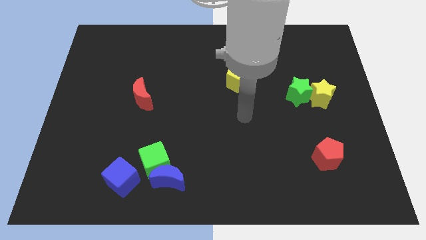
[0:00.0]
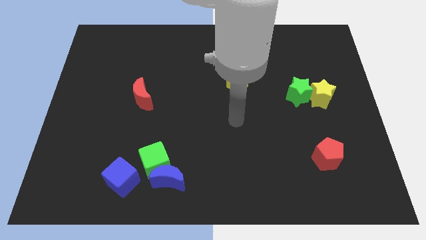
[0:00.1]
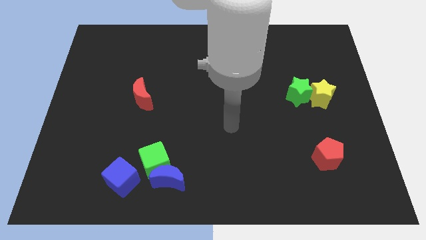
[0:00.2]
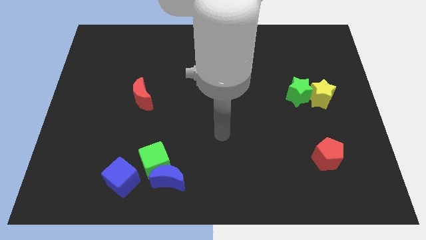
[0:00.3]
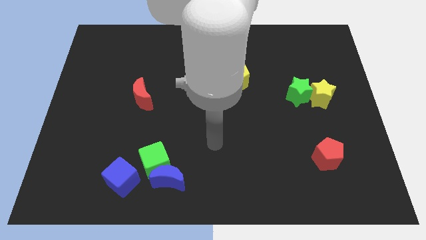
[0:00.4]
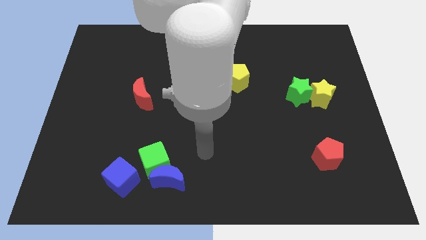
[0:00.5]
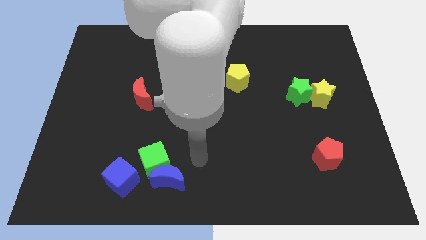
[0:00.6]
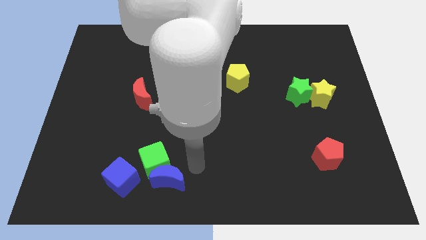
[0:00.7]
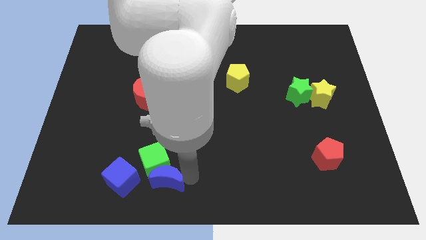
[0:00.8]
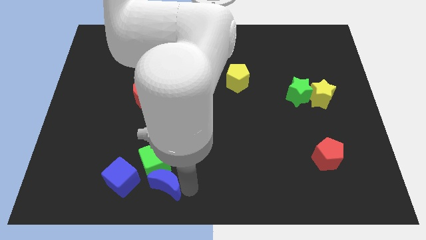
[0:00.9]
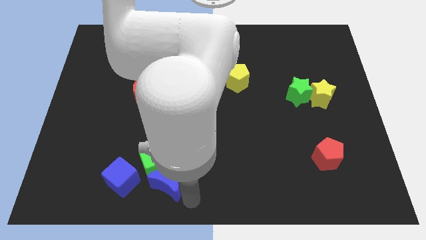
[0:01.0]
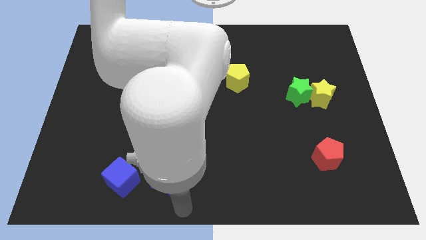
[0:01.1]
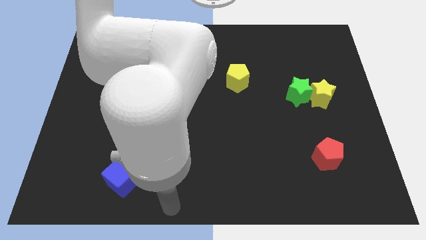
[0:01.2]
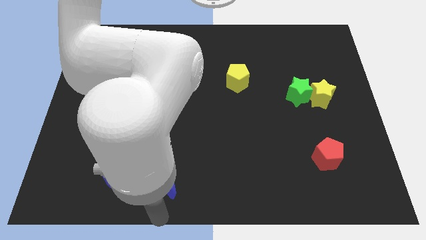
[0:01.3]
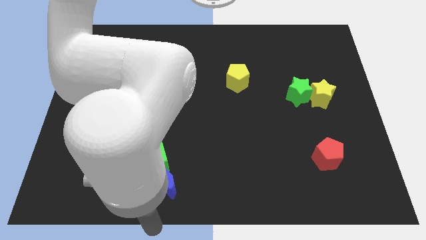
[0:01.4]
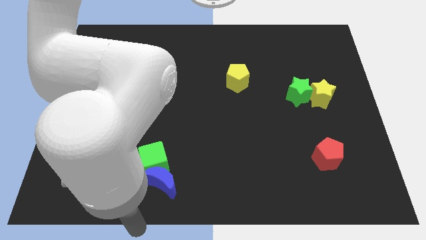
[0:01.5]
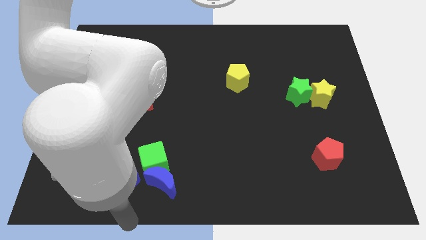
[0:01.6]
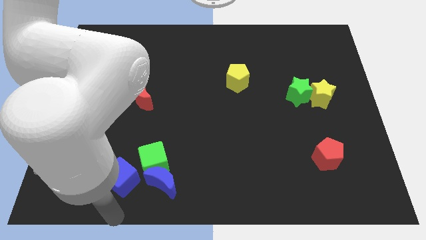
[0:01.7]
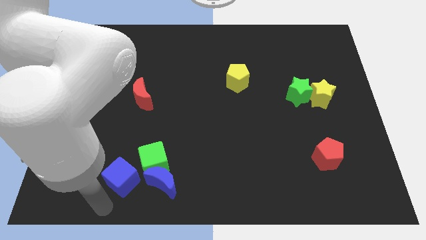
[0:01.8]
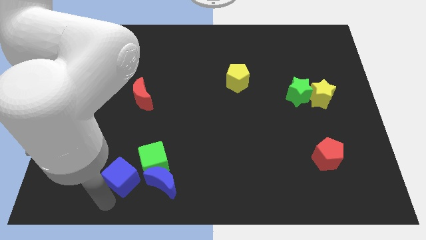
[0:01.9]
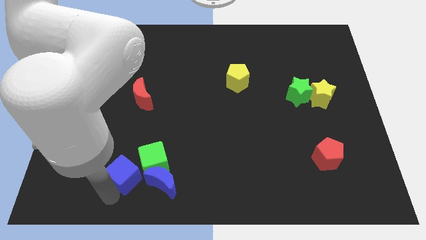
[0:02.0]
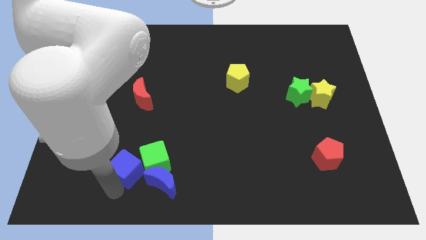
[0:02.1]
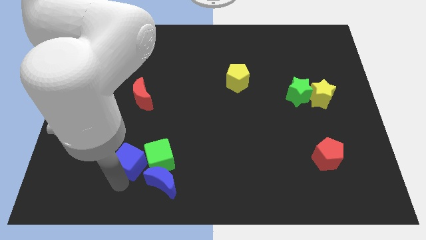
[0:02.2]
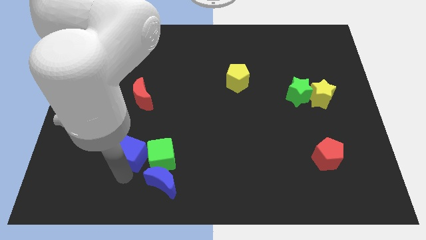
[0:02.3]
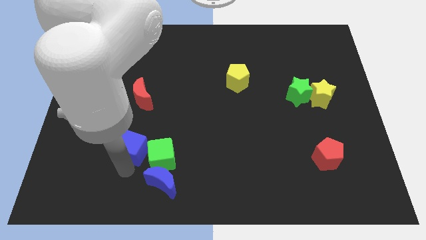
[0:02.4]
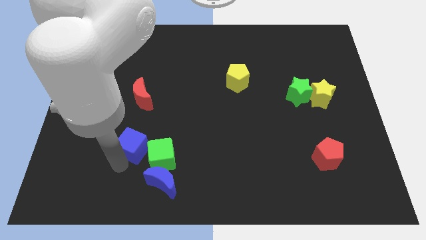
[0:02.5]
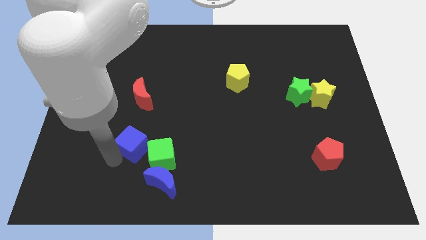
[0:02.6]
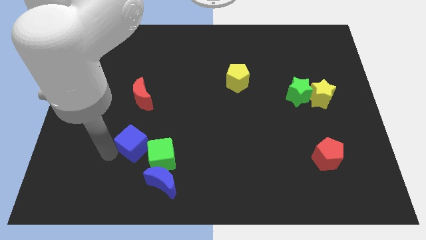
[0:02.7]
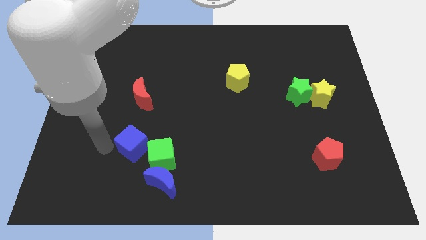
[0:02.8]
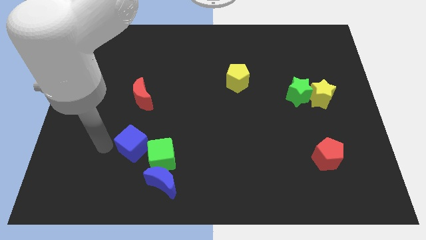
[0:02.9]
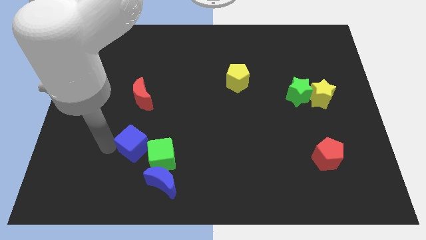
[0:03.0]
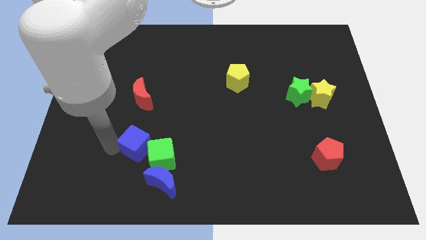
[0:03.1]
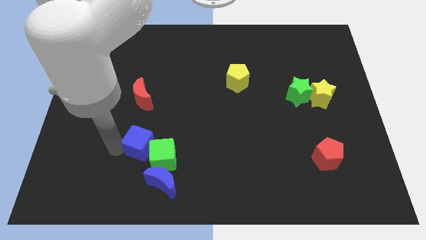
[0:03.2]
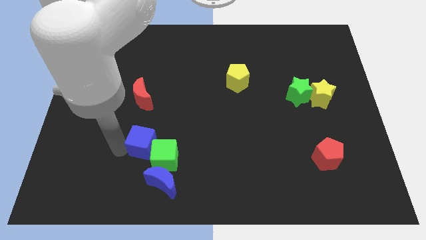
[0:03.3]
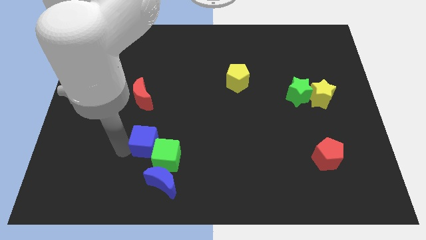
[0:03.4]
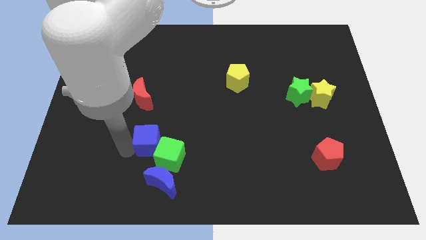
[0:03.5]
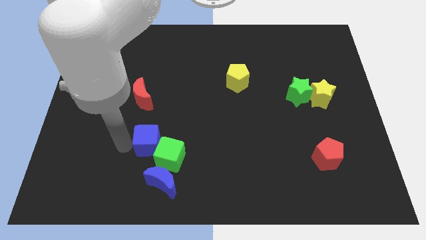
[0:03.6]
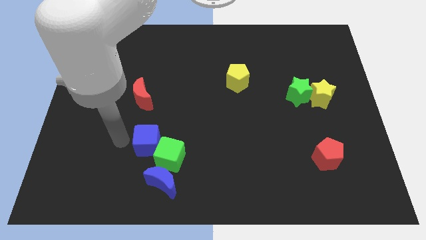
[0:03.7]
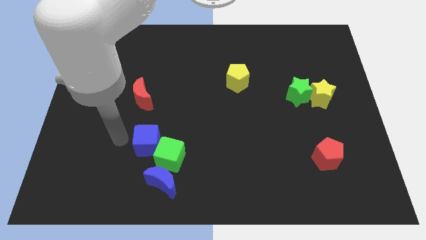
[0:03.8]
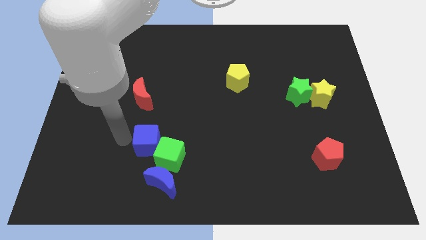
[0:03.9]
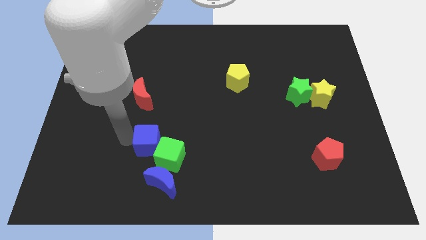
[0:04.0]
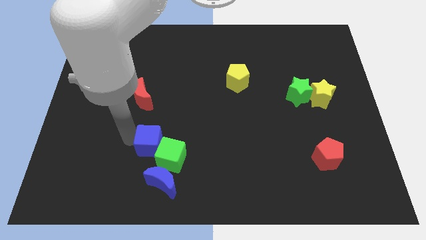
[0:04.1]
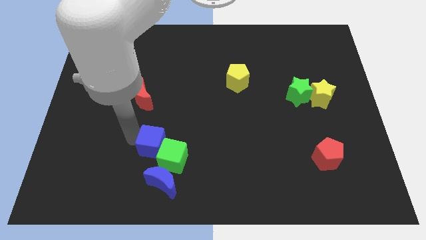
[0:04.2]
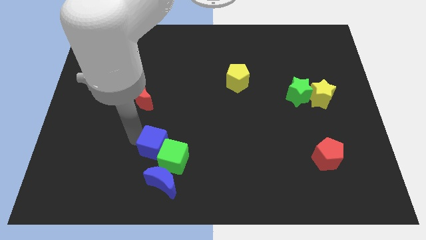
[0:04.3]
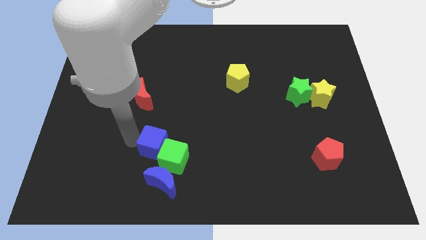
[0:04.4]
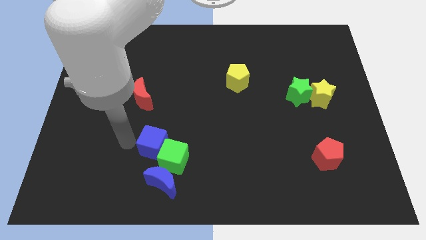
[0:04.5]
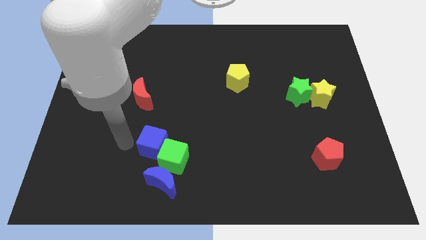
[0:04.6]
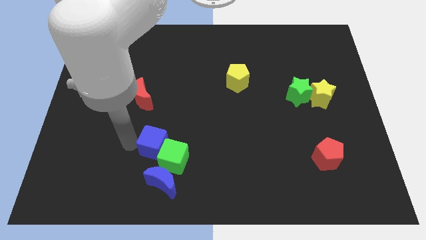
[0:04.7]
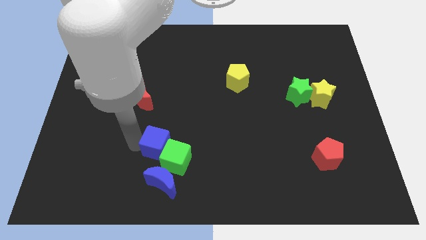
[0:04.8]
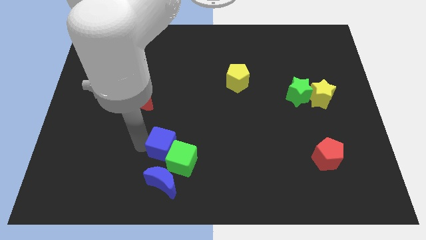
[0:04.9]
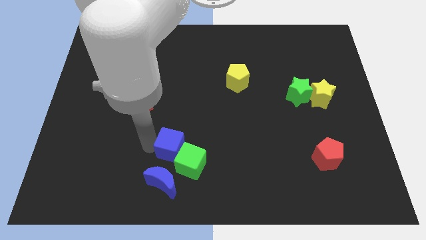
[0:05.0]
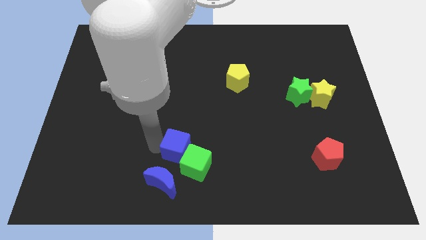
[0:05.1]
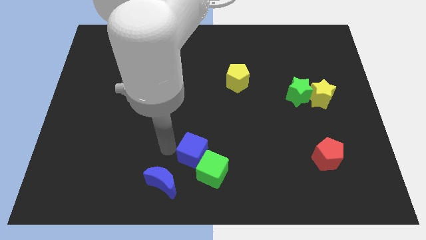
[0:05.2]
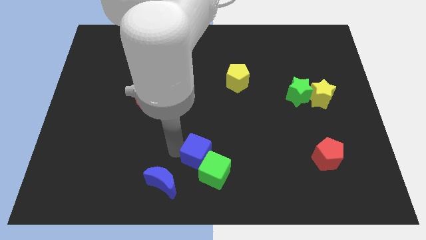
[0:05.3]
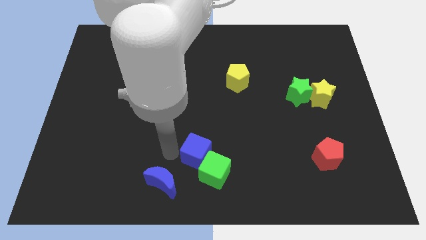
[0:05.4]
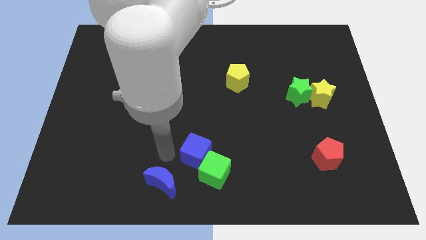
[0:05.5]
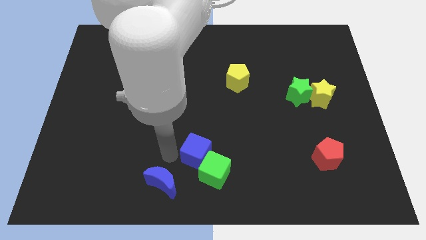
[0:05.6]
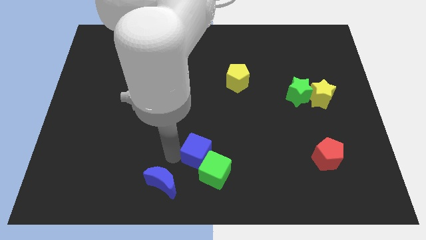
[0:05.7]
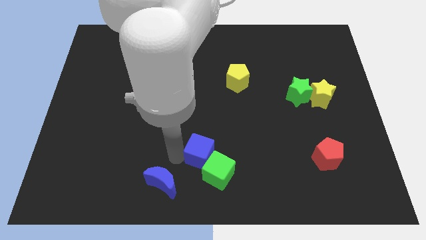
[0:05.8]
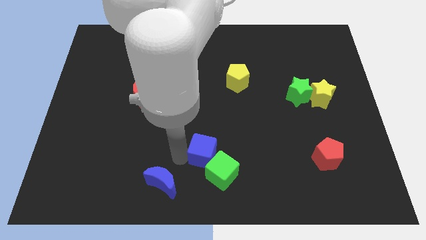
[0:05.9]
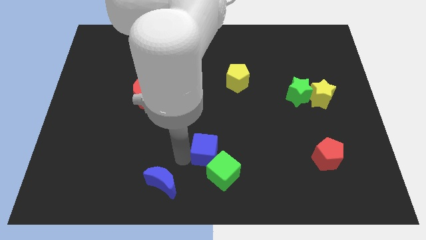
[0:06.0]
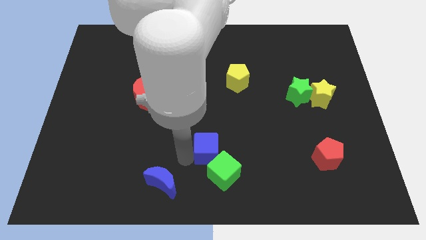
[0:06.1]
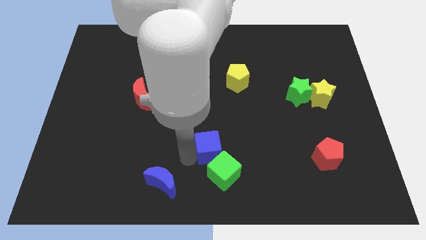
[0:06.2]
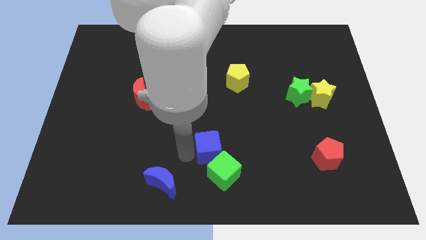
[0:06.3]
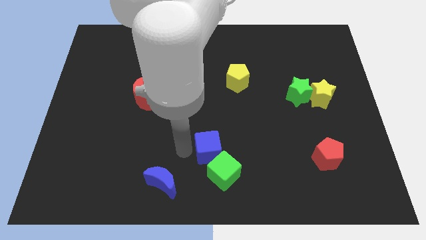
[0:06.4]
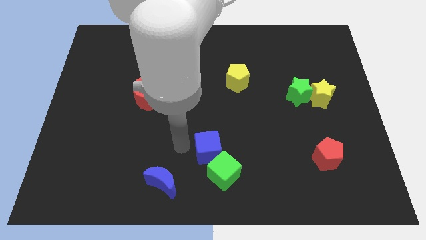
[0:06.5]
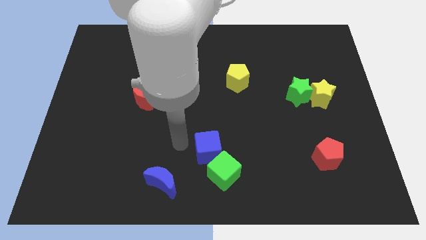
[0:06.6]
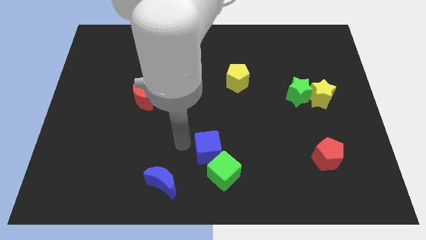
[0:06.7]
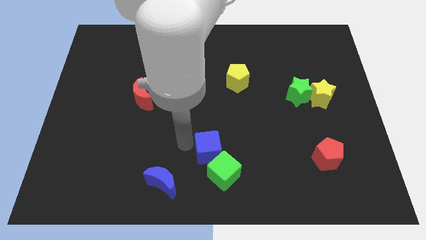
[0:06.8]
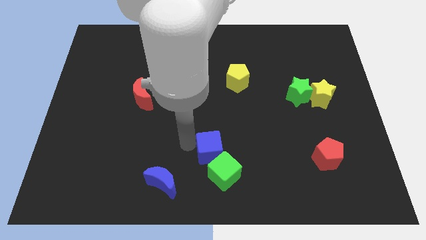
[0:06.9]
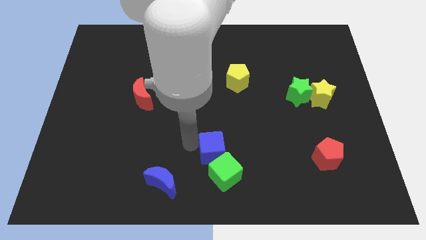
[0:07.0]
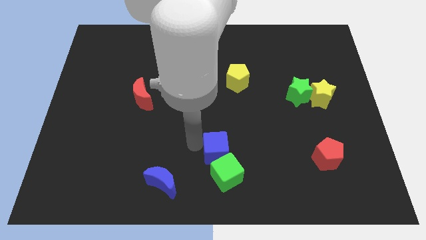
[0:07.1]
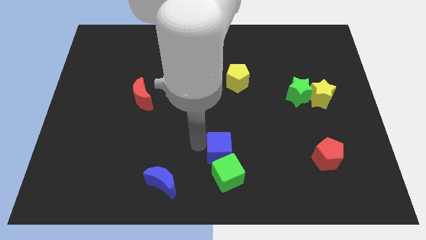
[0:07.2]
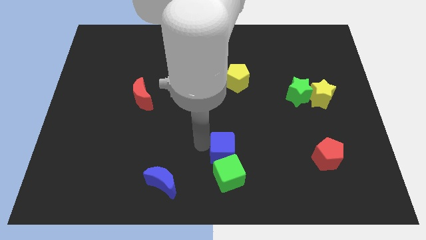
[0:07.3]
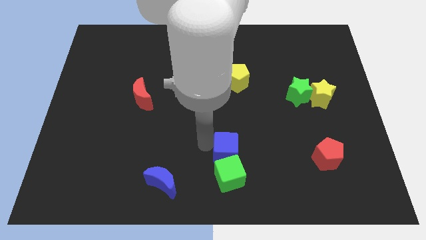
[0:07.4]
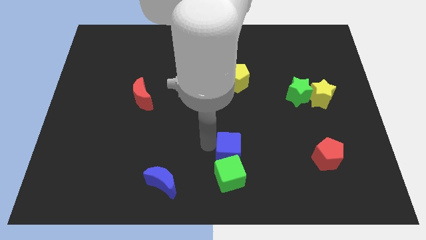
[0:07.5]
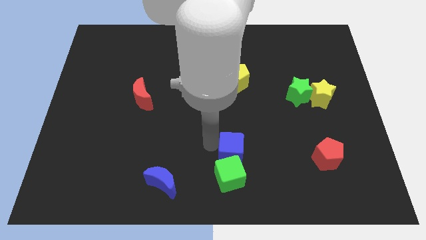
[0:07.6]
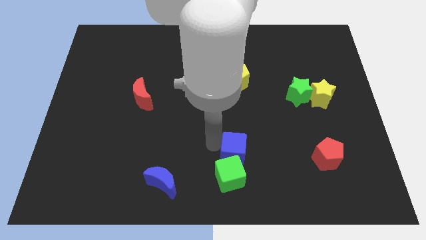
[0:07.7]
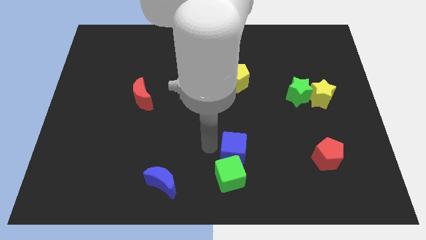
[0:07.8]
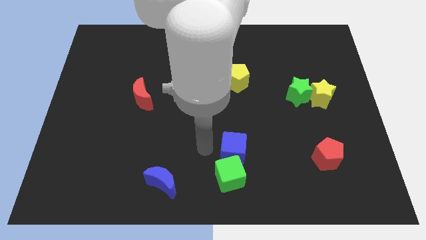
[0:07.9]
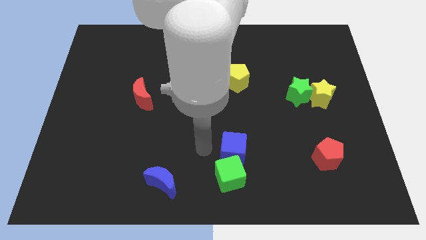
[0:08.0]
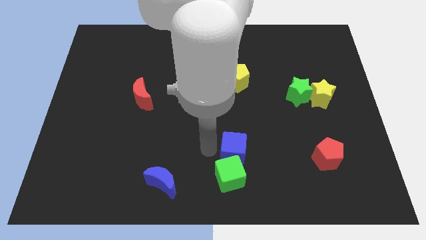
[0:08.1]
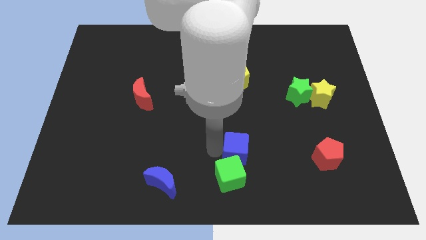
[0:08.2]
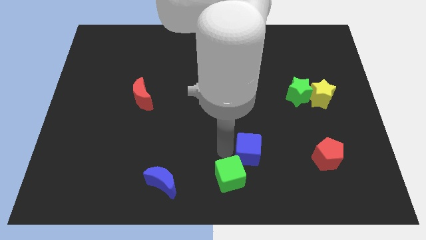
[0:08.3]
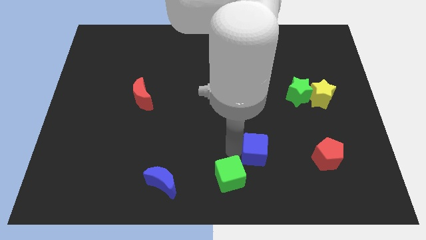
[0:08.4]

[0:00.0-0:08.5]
move the blue cube just left of the red pentagon
